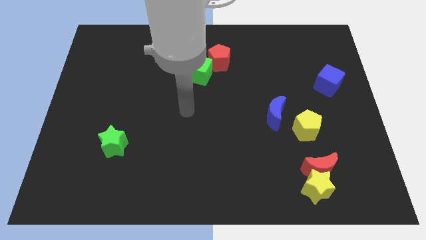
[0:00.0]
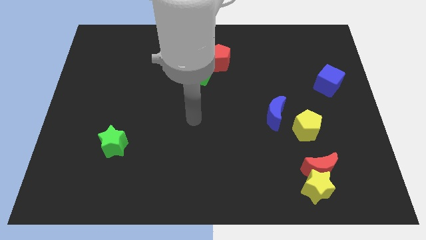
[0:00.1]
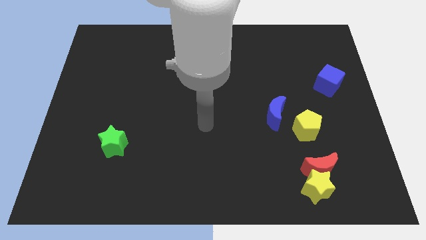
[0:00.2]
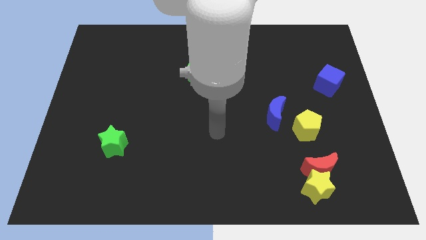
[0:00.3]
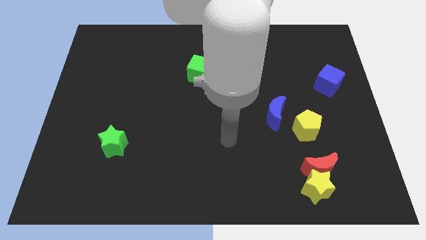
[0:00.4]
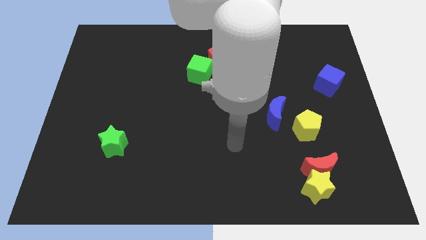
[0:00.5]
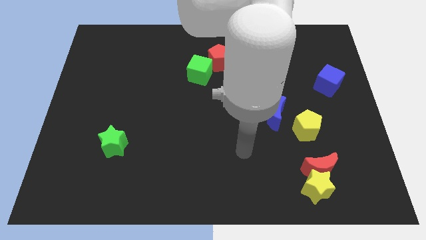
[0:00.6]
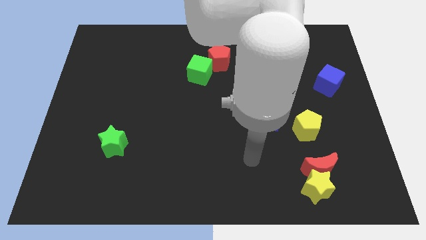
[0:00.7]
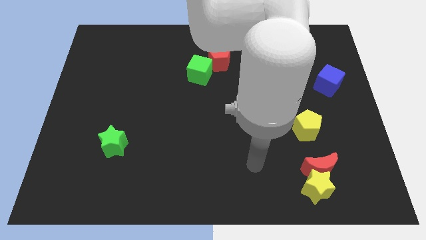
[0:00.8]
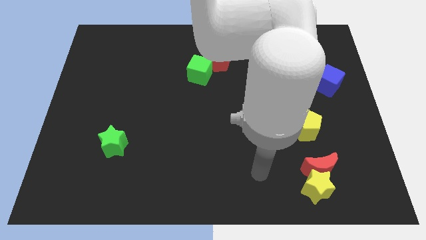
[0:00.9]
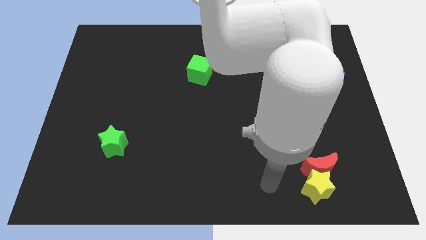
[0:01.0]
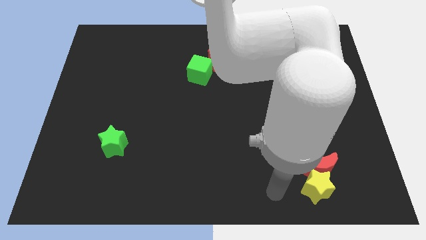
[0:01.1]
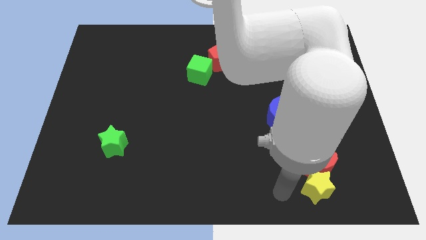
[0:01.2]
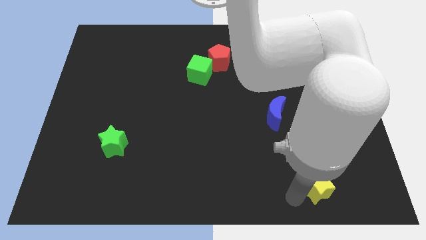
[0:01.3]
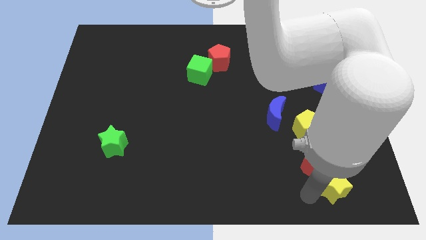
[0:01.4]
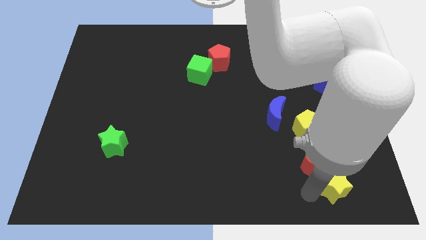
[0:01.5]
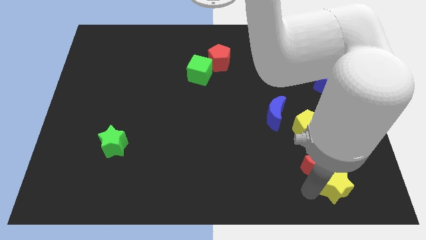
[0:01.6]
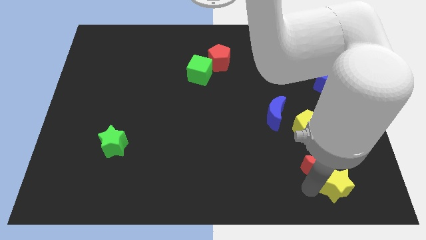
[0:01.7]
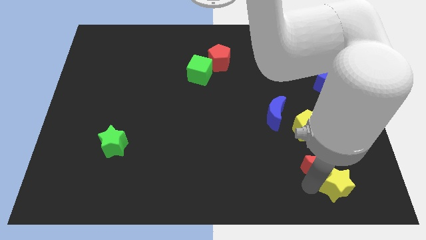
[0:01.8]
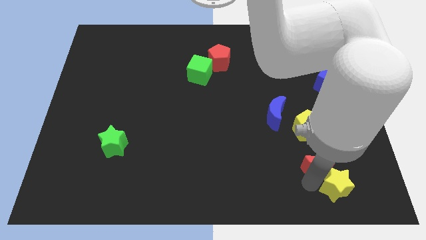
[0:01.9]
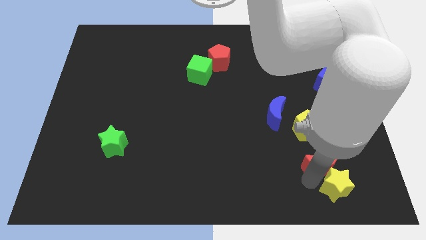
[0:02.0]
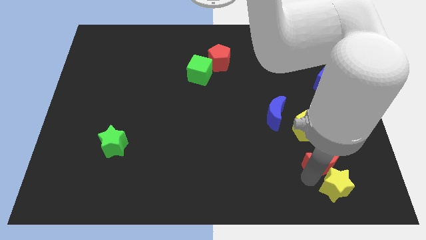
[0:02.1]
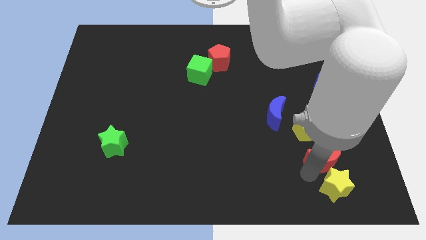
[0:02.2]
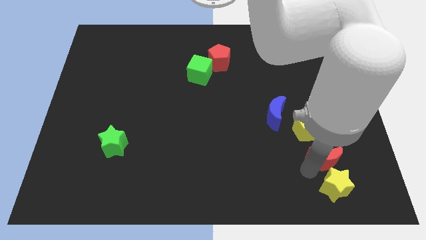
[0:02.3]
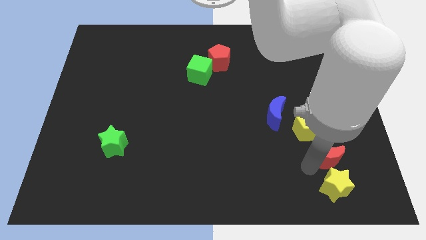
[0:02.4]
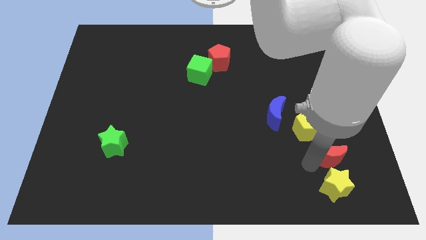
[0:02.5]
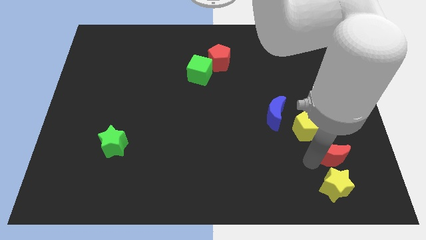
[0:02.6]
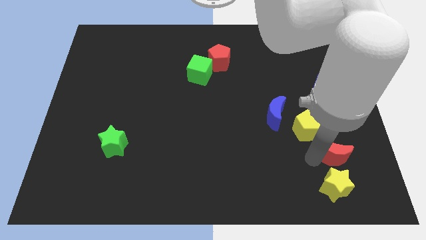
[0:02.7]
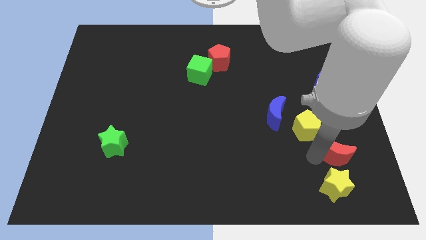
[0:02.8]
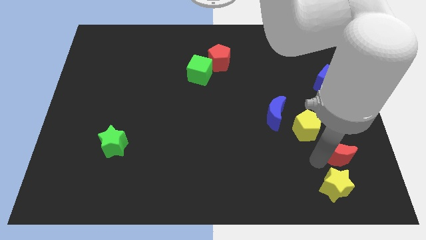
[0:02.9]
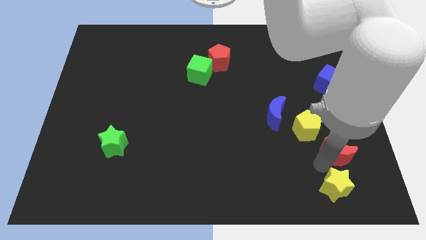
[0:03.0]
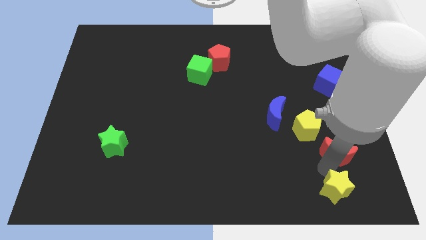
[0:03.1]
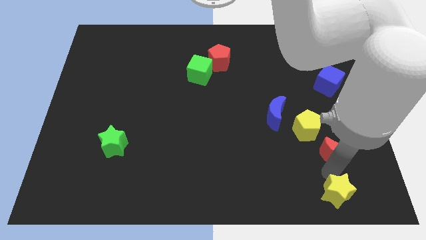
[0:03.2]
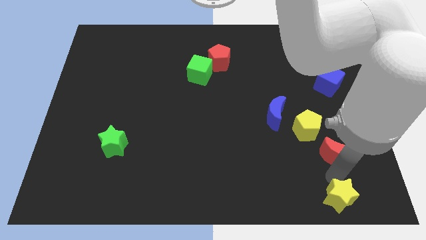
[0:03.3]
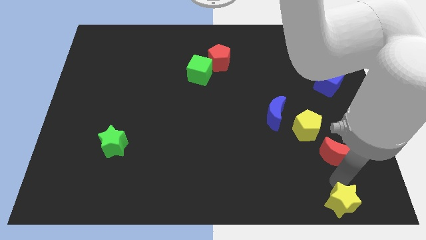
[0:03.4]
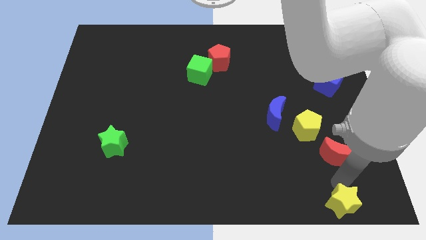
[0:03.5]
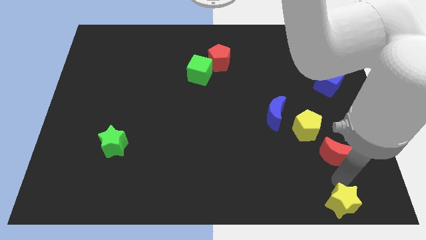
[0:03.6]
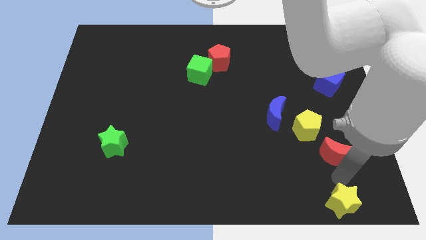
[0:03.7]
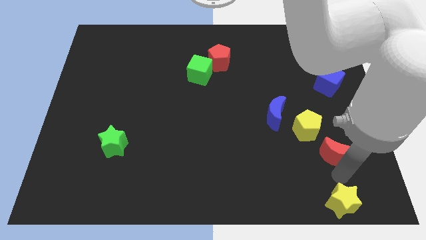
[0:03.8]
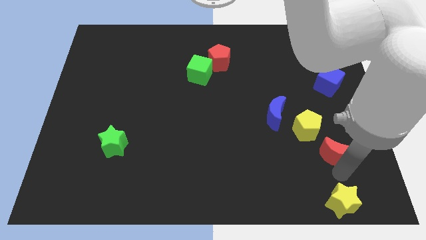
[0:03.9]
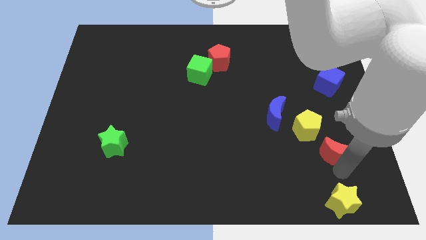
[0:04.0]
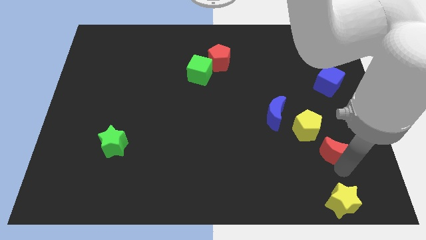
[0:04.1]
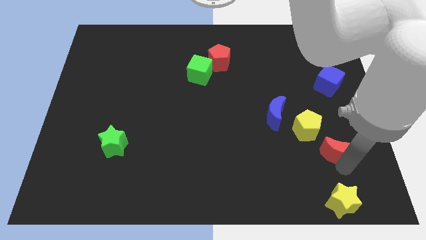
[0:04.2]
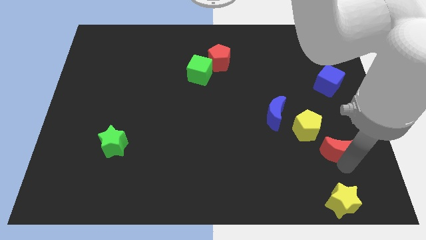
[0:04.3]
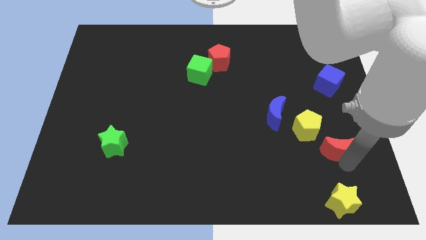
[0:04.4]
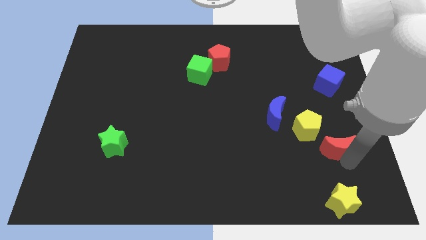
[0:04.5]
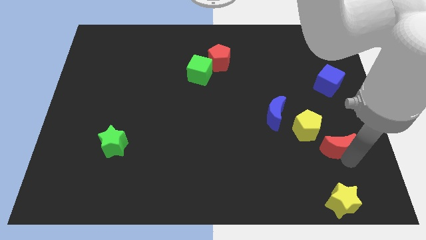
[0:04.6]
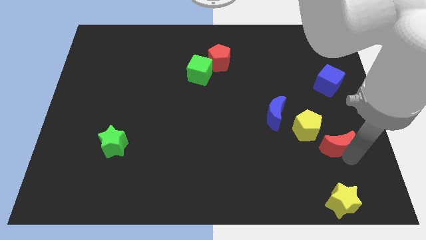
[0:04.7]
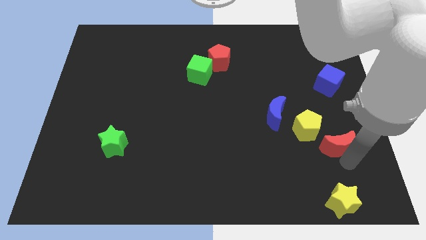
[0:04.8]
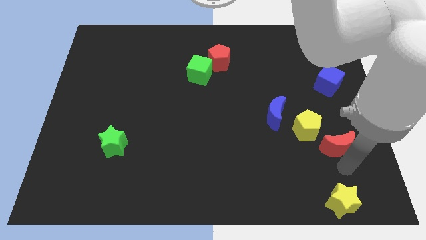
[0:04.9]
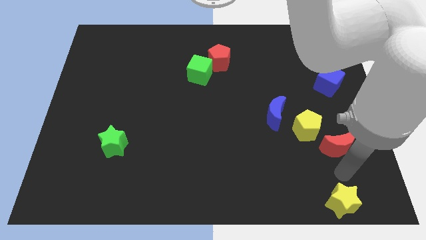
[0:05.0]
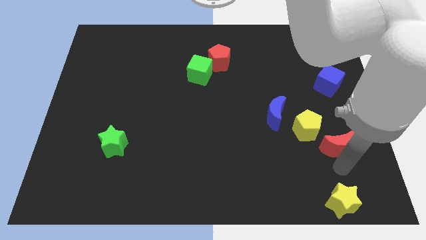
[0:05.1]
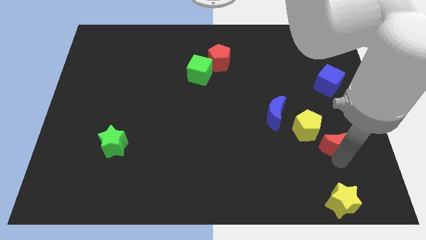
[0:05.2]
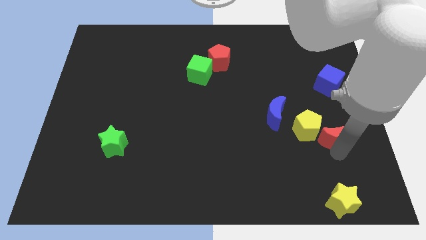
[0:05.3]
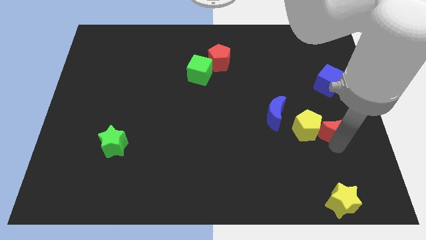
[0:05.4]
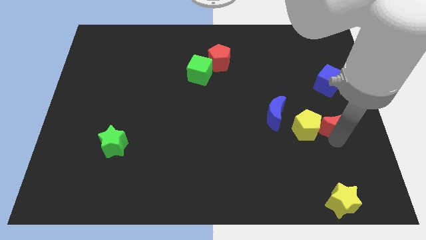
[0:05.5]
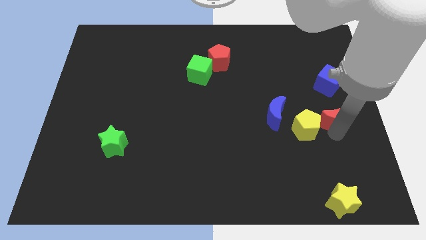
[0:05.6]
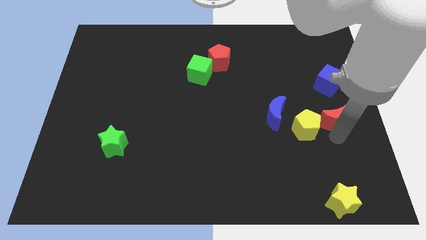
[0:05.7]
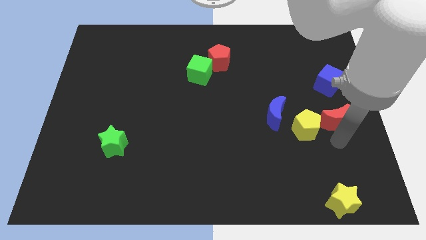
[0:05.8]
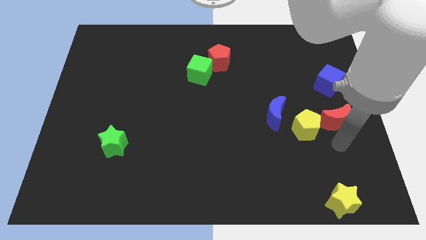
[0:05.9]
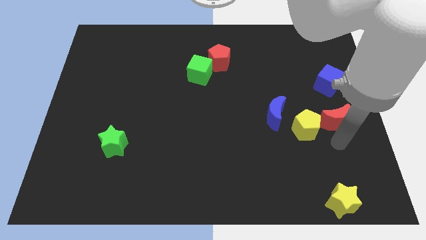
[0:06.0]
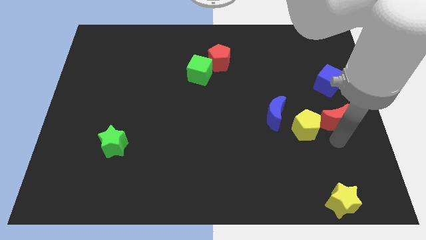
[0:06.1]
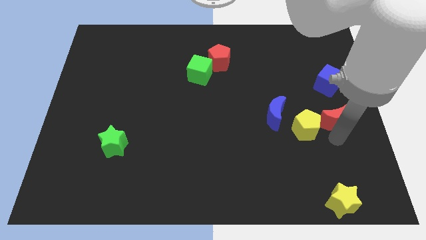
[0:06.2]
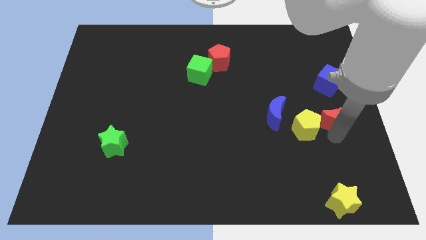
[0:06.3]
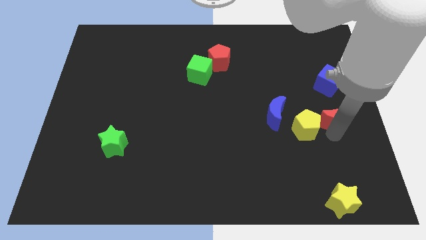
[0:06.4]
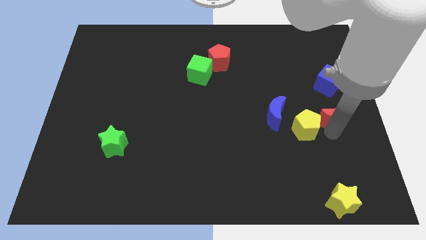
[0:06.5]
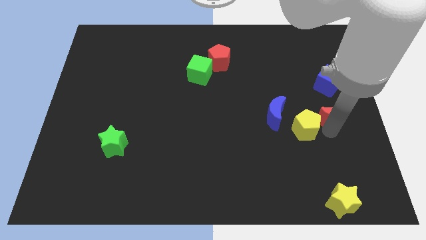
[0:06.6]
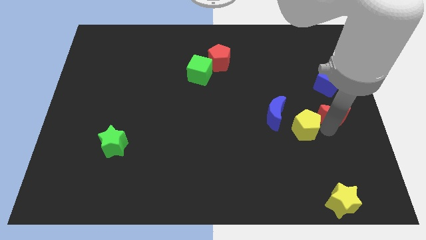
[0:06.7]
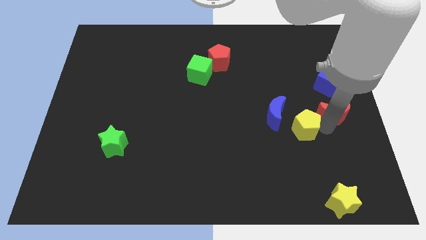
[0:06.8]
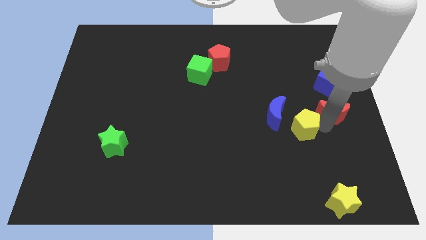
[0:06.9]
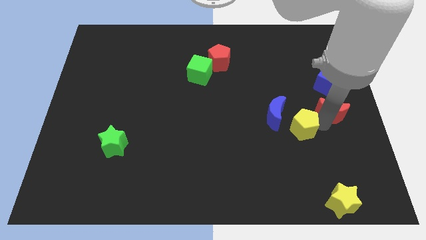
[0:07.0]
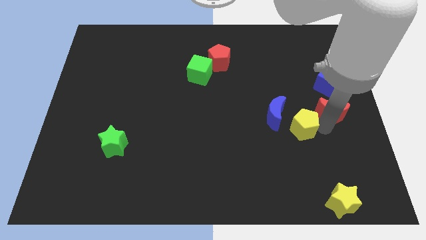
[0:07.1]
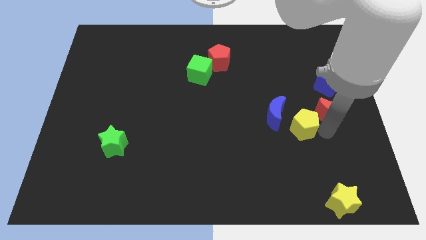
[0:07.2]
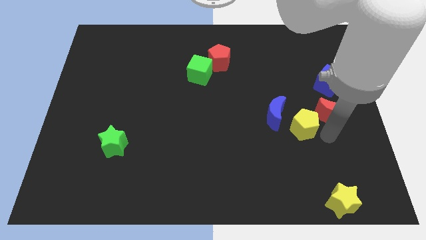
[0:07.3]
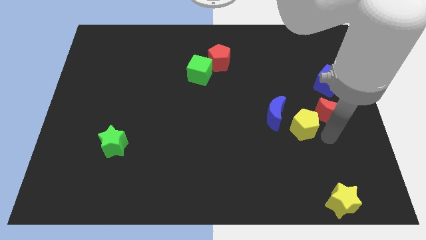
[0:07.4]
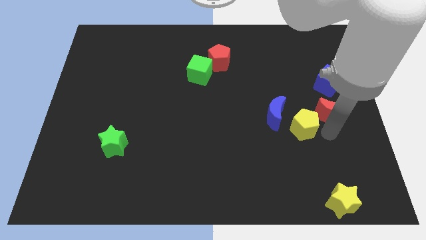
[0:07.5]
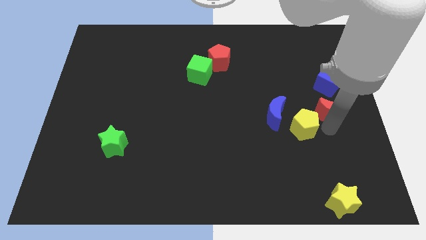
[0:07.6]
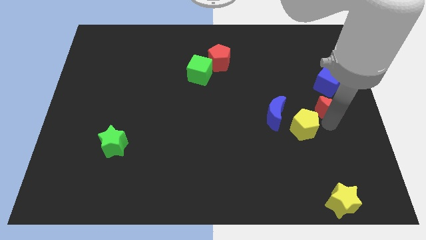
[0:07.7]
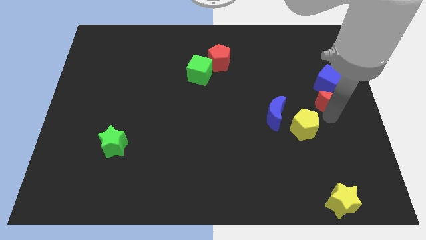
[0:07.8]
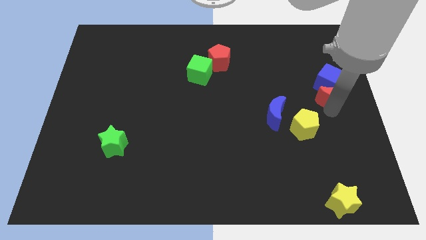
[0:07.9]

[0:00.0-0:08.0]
put the red moon close to the blue cube
